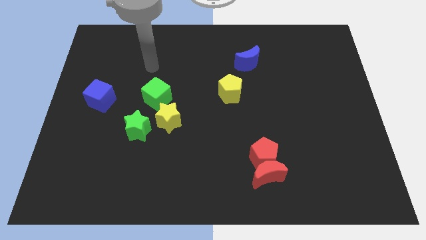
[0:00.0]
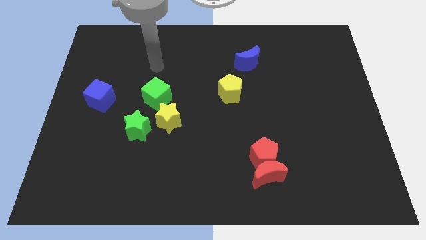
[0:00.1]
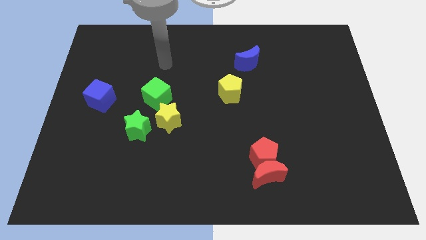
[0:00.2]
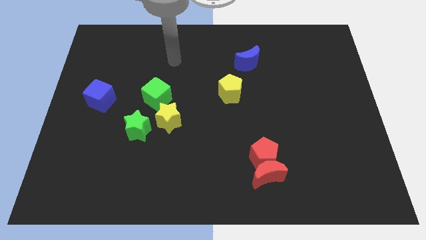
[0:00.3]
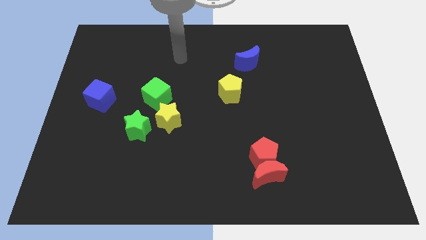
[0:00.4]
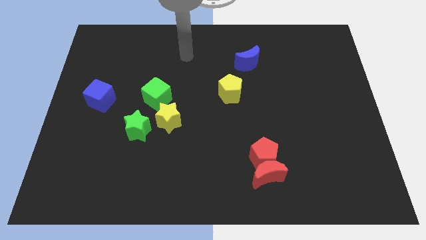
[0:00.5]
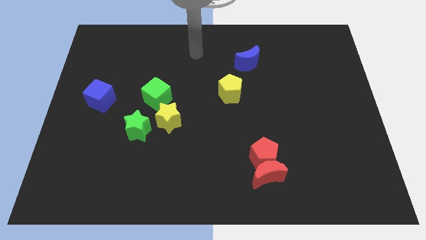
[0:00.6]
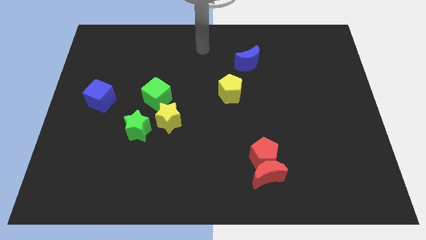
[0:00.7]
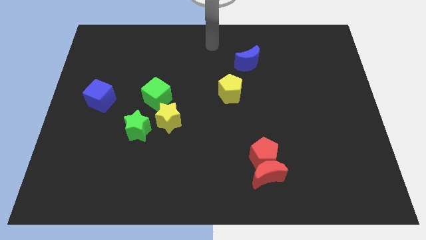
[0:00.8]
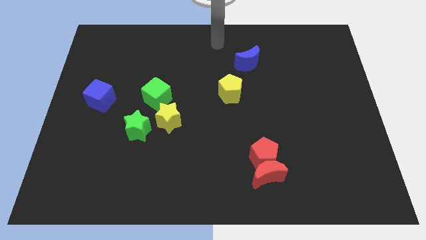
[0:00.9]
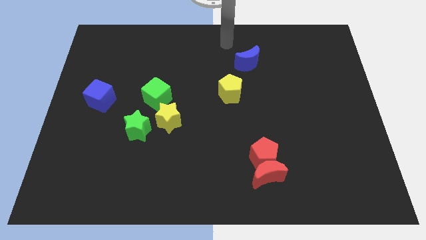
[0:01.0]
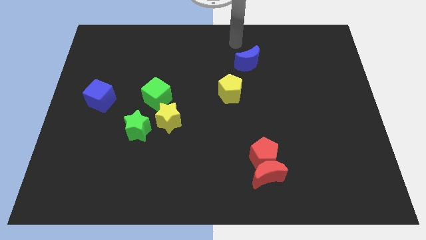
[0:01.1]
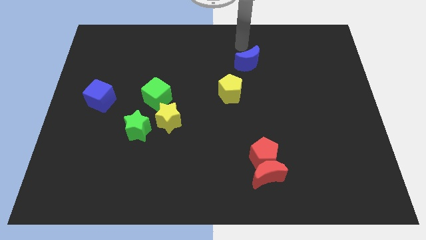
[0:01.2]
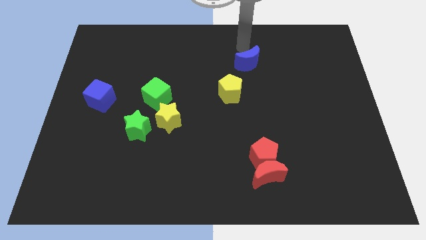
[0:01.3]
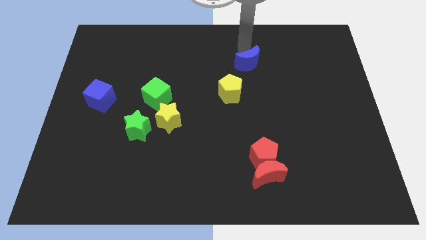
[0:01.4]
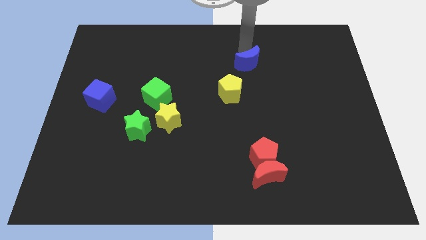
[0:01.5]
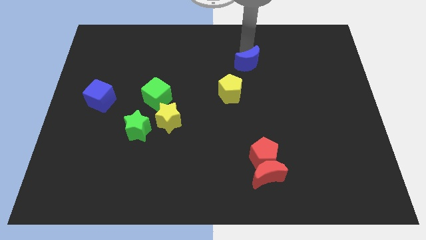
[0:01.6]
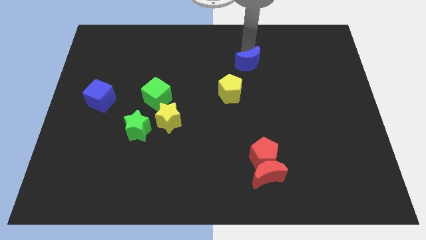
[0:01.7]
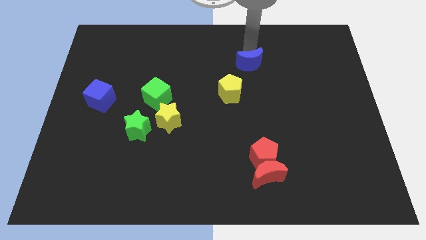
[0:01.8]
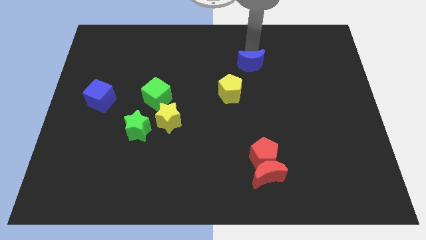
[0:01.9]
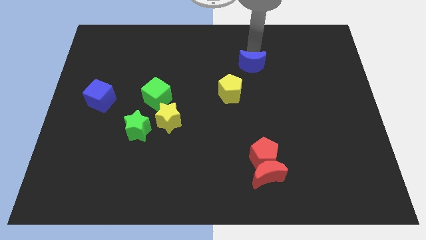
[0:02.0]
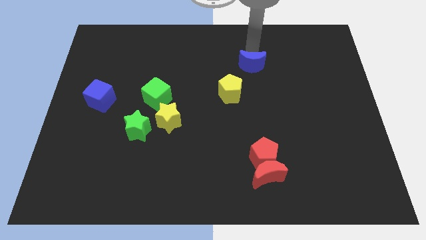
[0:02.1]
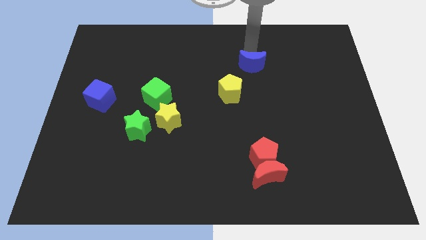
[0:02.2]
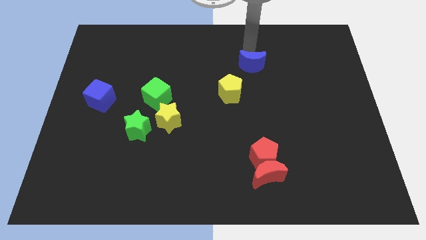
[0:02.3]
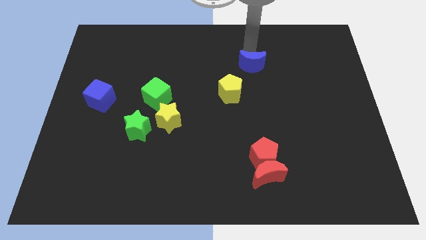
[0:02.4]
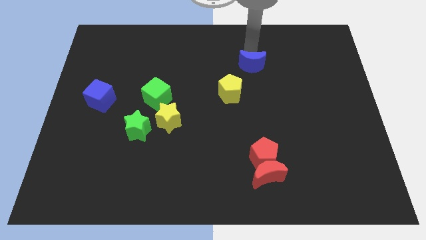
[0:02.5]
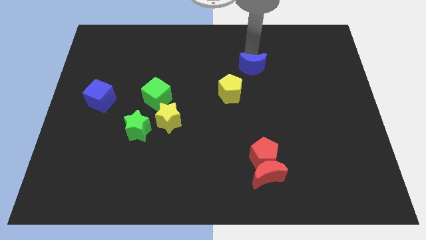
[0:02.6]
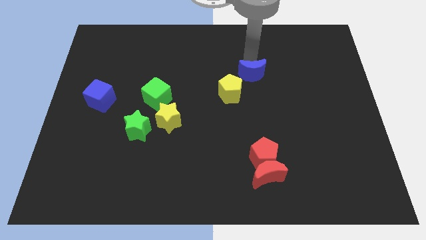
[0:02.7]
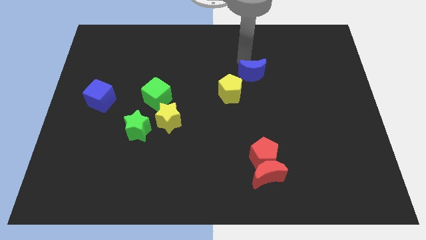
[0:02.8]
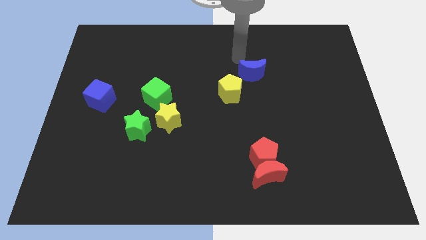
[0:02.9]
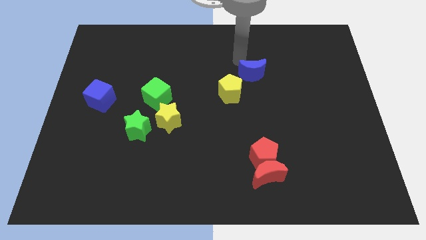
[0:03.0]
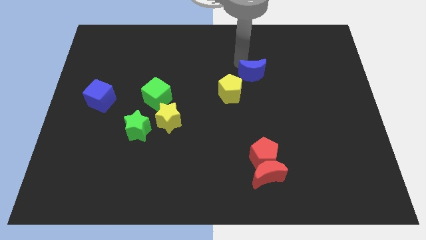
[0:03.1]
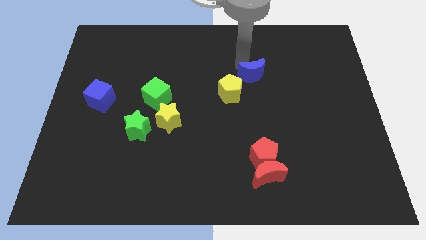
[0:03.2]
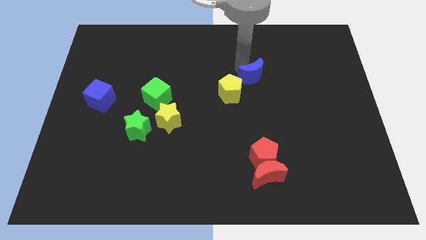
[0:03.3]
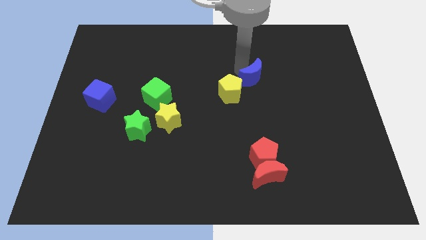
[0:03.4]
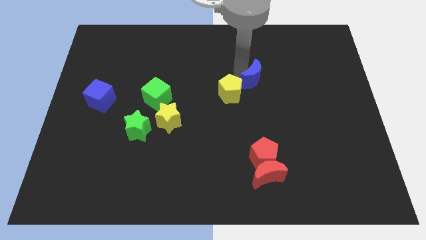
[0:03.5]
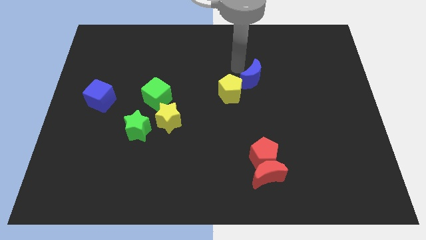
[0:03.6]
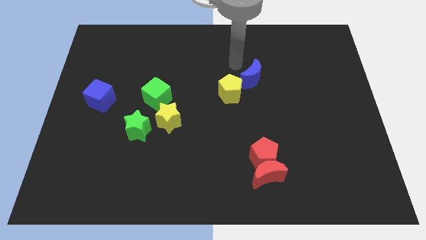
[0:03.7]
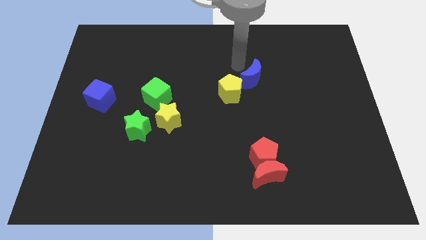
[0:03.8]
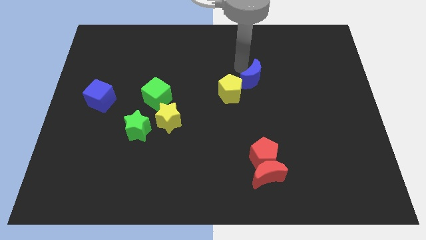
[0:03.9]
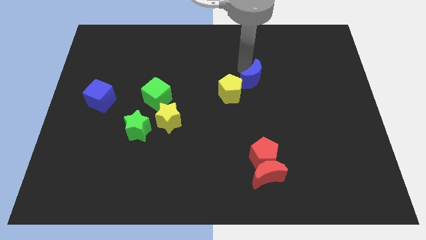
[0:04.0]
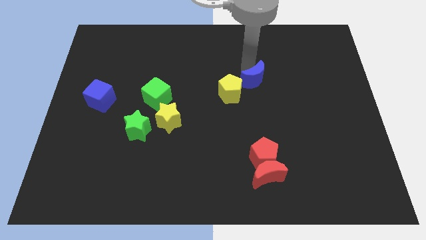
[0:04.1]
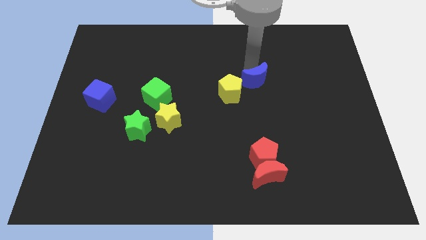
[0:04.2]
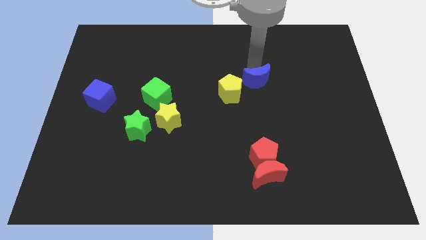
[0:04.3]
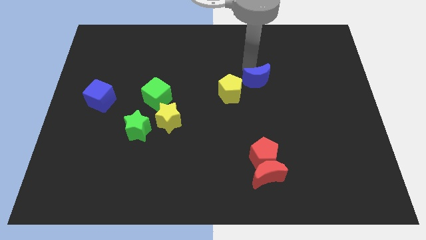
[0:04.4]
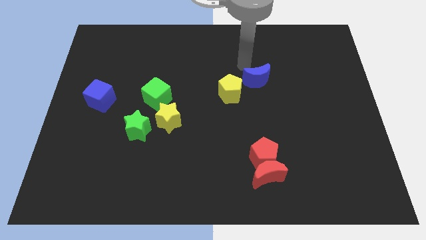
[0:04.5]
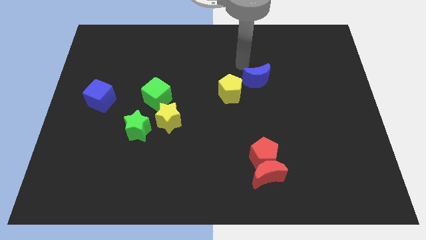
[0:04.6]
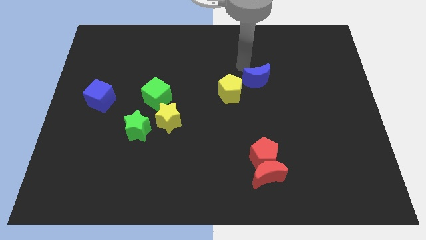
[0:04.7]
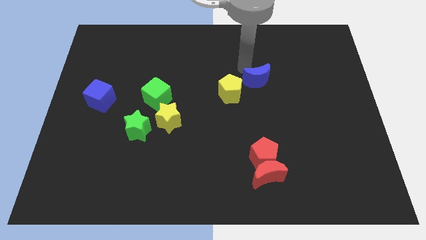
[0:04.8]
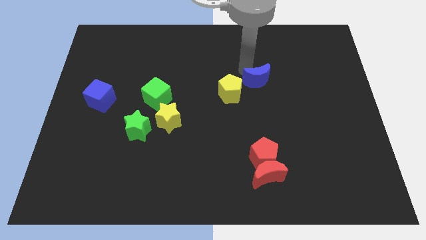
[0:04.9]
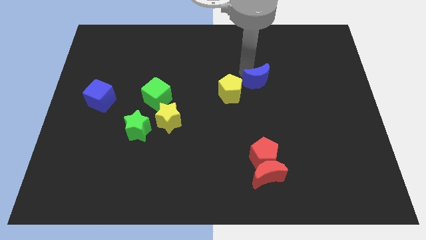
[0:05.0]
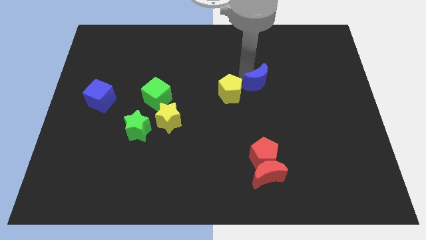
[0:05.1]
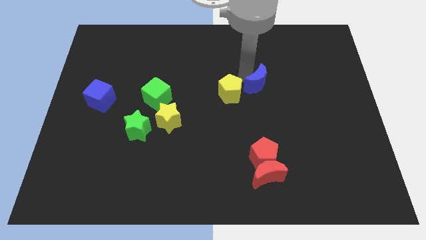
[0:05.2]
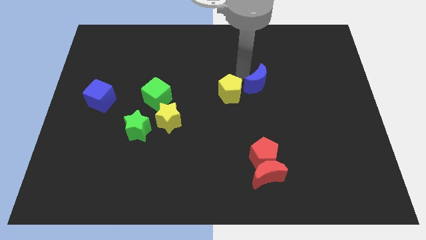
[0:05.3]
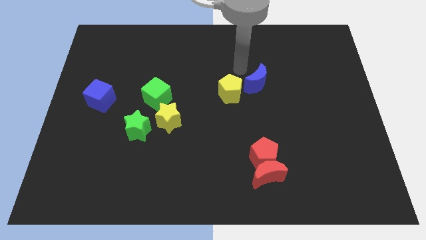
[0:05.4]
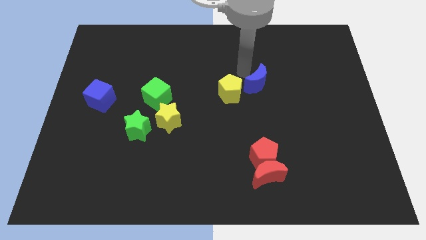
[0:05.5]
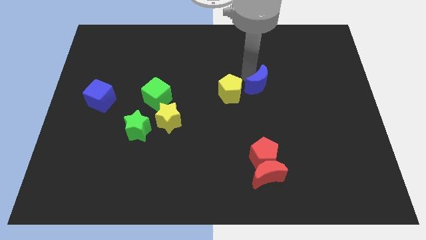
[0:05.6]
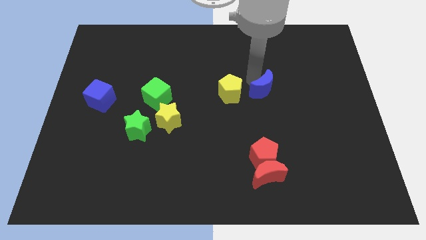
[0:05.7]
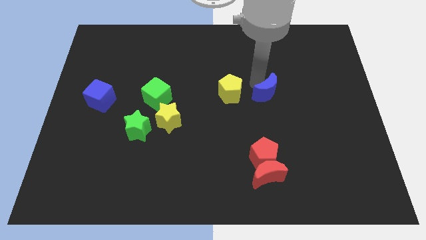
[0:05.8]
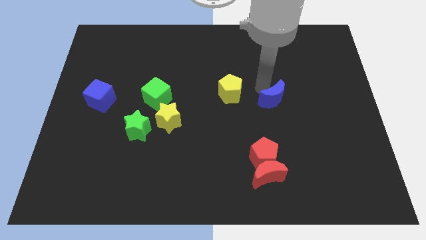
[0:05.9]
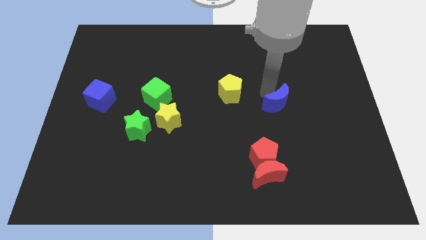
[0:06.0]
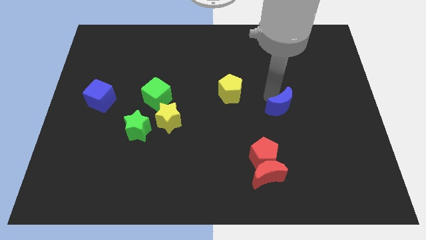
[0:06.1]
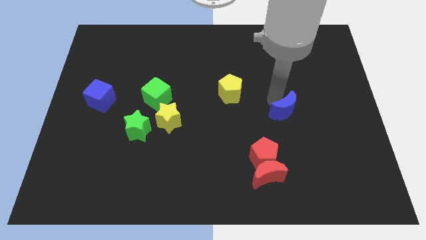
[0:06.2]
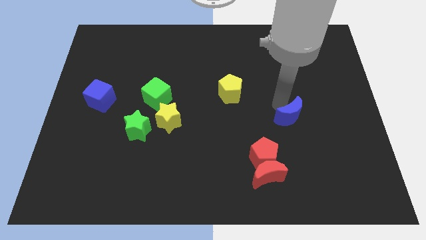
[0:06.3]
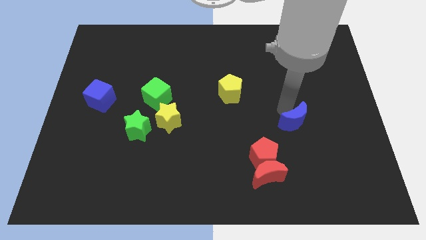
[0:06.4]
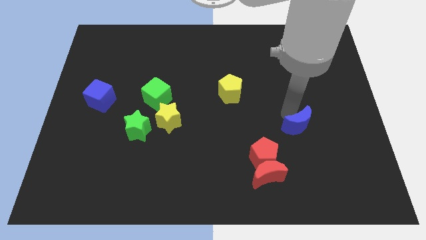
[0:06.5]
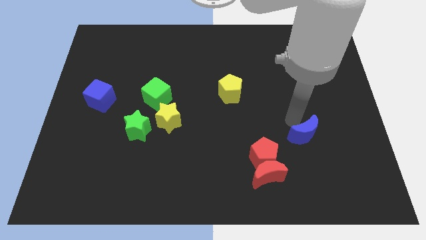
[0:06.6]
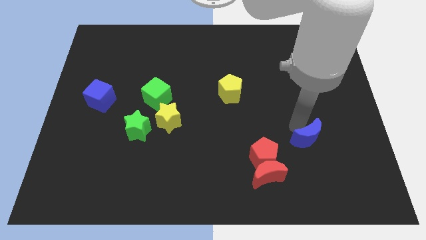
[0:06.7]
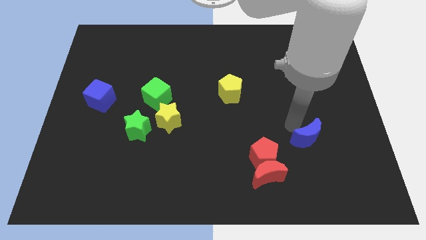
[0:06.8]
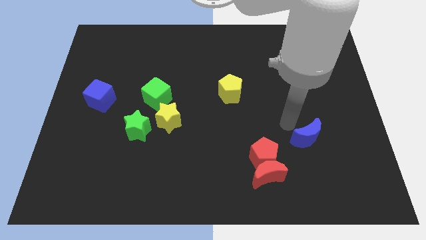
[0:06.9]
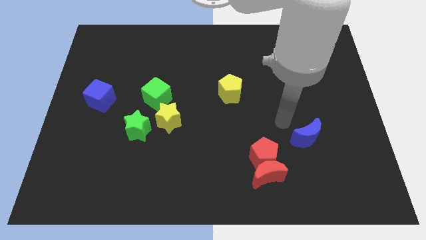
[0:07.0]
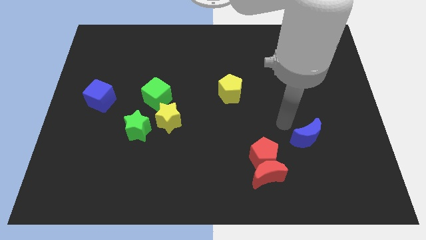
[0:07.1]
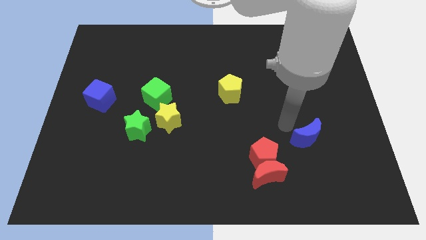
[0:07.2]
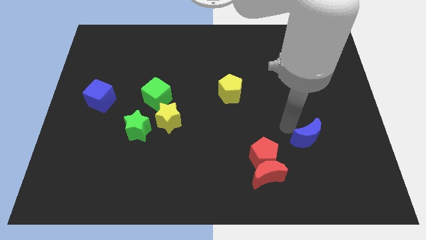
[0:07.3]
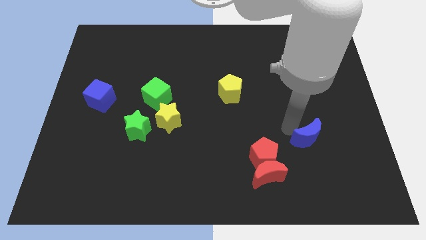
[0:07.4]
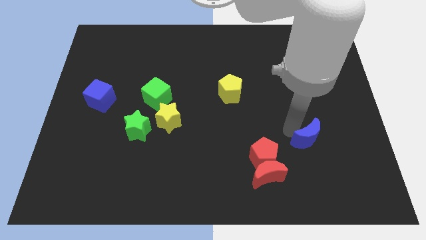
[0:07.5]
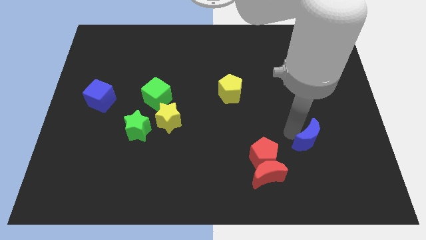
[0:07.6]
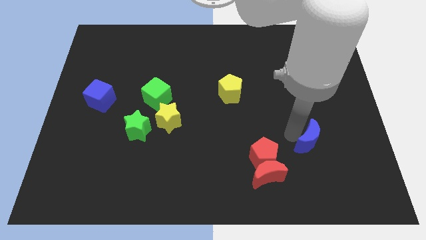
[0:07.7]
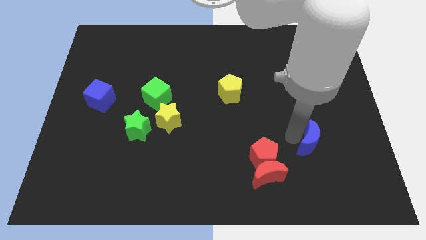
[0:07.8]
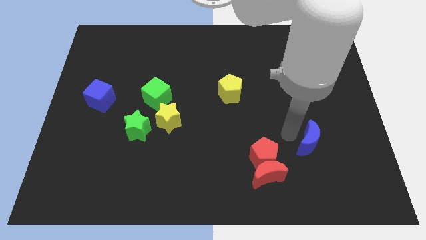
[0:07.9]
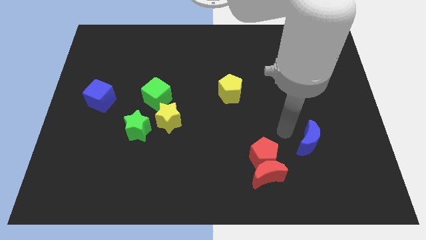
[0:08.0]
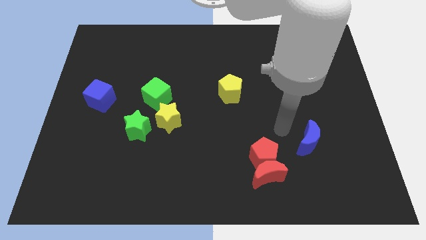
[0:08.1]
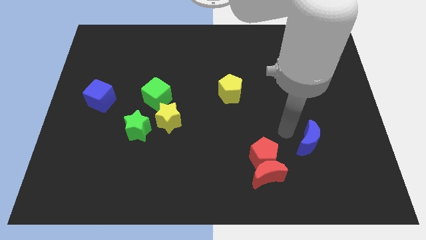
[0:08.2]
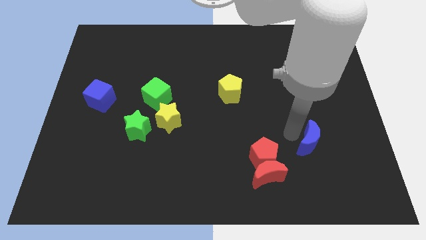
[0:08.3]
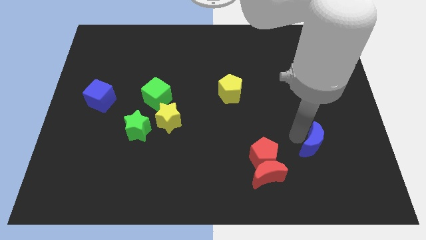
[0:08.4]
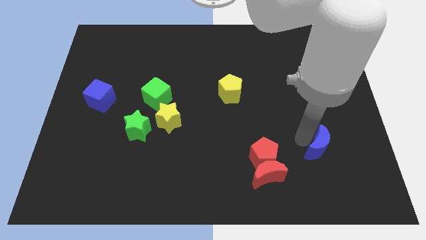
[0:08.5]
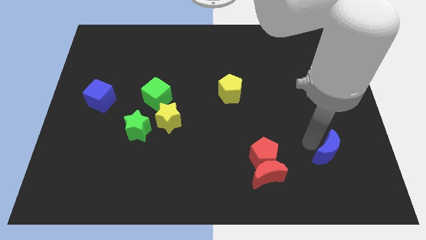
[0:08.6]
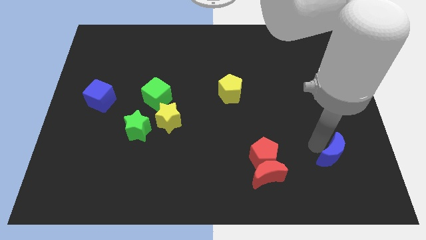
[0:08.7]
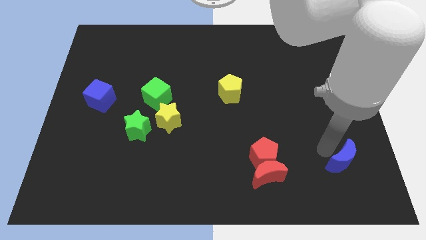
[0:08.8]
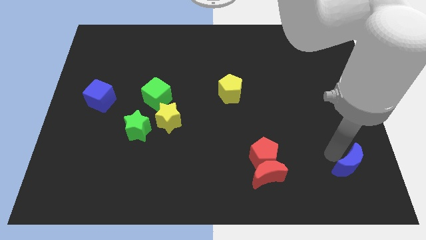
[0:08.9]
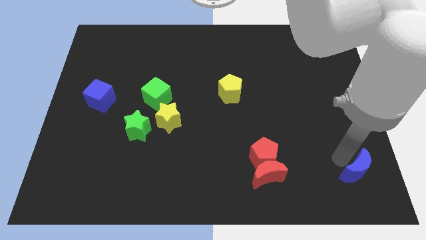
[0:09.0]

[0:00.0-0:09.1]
slide the blue moon to the bottom right of the board
